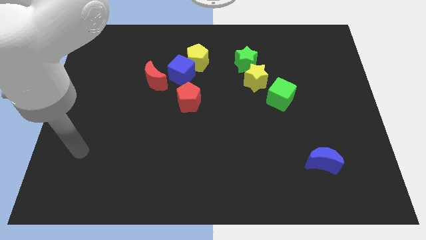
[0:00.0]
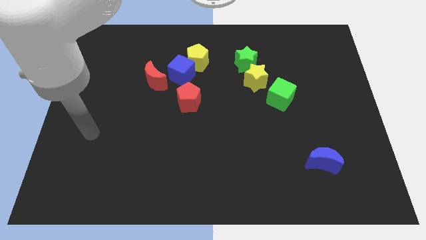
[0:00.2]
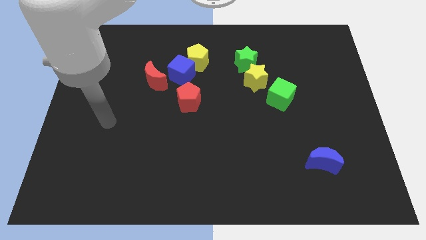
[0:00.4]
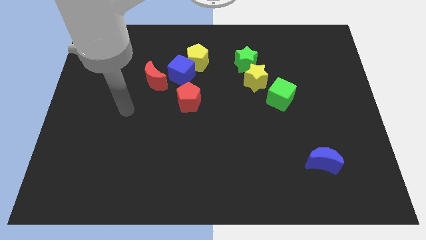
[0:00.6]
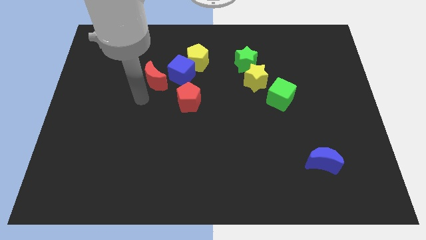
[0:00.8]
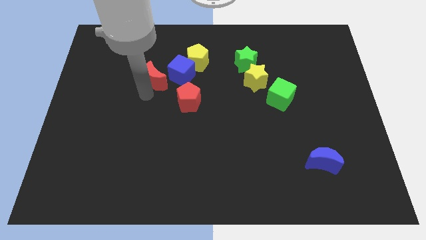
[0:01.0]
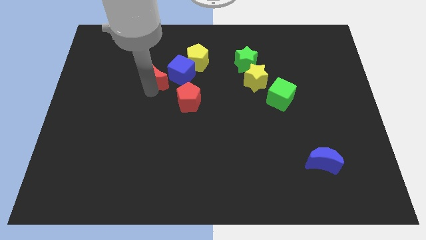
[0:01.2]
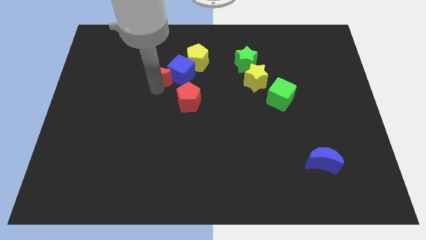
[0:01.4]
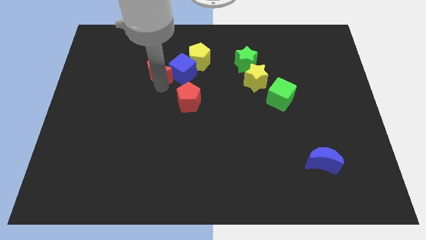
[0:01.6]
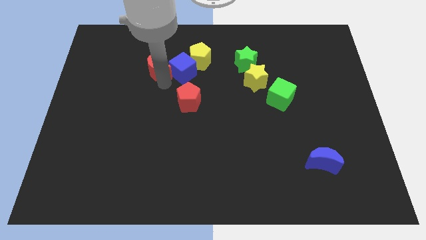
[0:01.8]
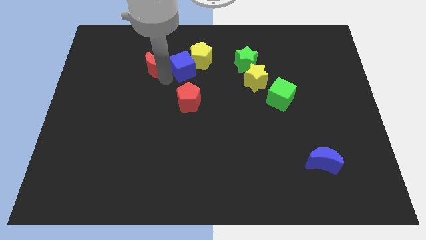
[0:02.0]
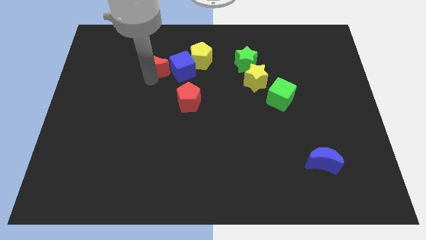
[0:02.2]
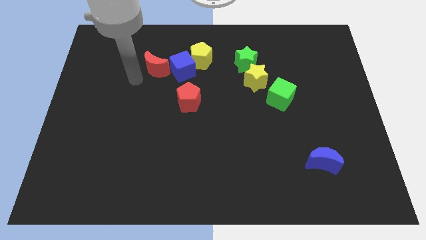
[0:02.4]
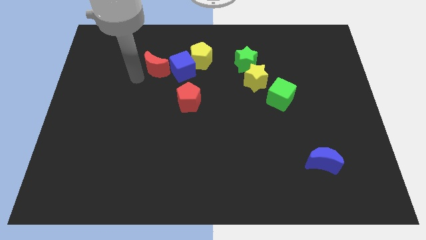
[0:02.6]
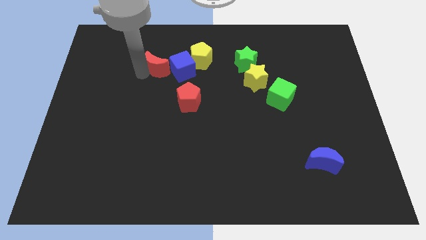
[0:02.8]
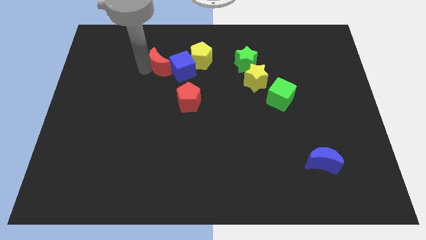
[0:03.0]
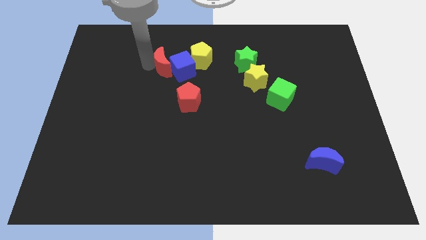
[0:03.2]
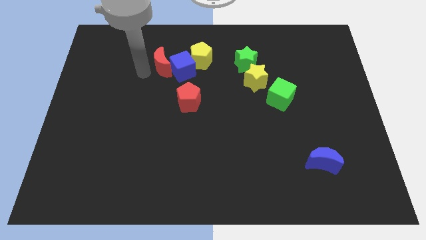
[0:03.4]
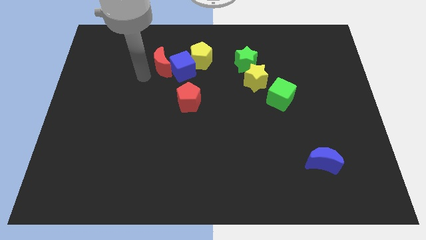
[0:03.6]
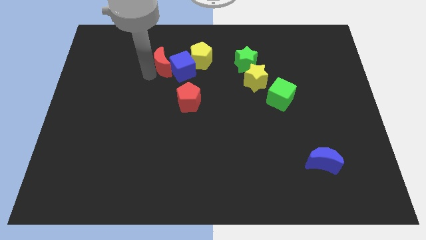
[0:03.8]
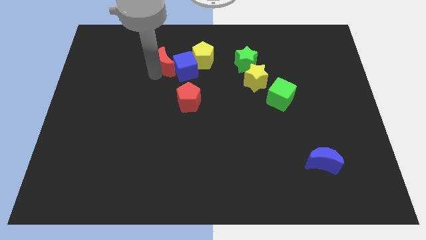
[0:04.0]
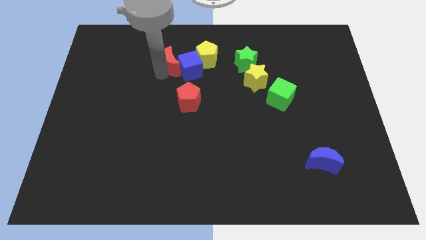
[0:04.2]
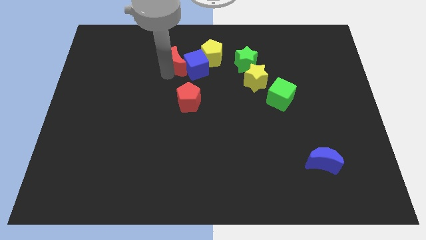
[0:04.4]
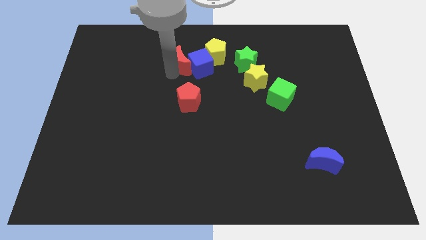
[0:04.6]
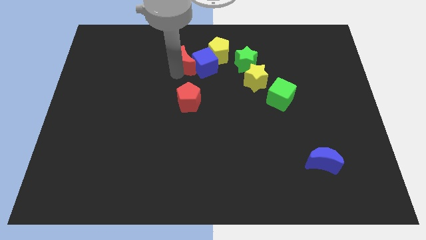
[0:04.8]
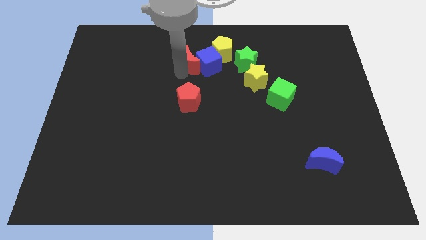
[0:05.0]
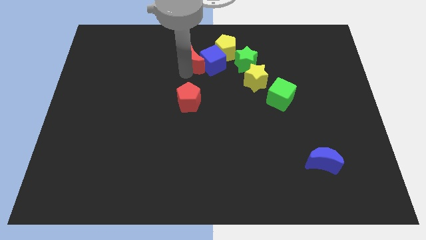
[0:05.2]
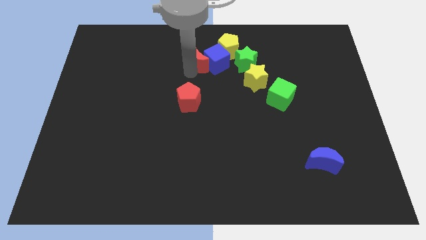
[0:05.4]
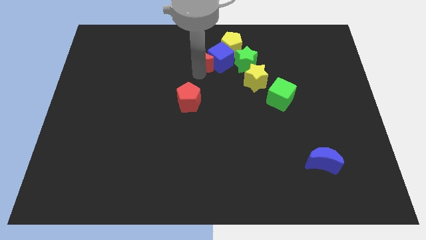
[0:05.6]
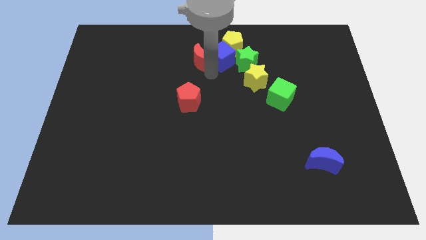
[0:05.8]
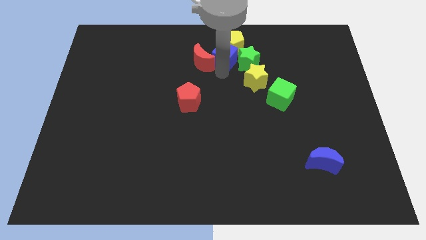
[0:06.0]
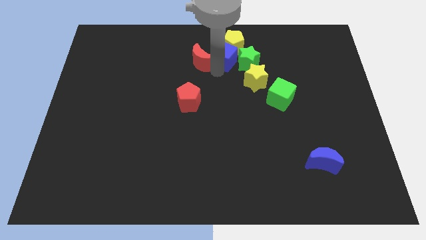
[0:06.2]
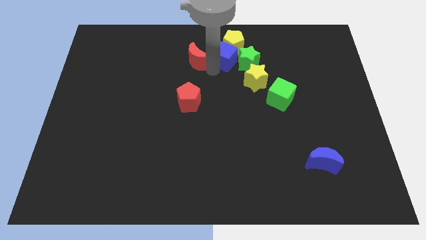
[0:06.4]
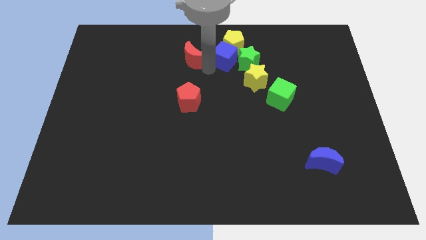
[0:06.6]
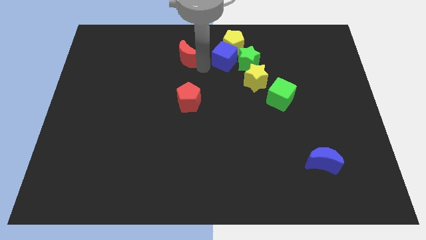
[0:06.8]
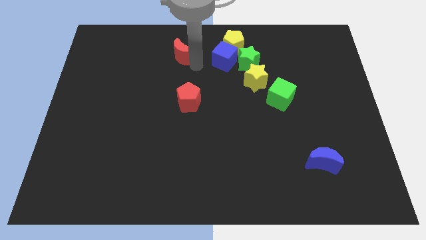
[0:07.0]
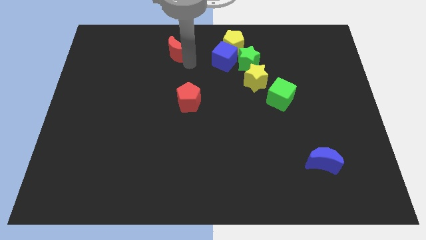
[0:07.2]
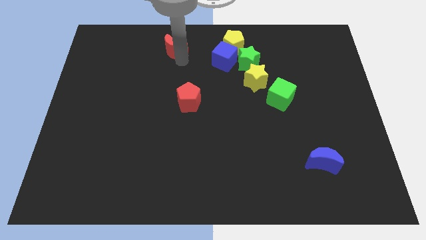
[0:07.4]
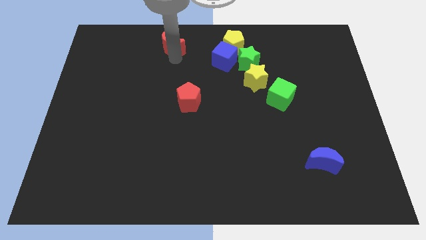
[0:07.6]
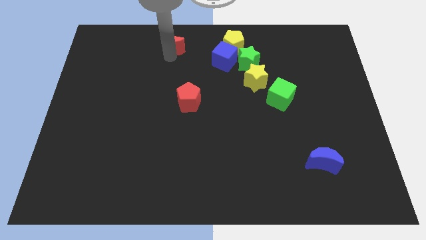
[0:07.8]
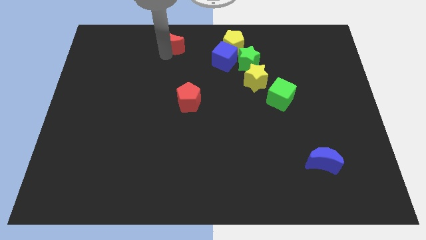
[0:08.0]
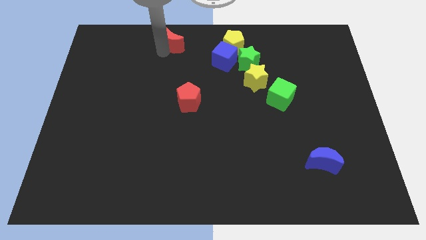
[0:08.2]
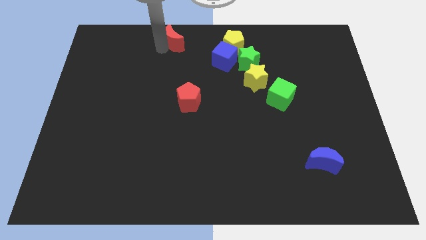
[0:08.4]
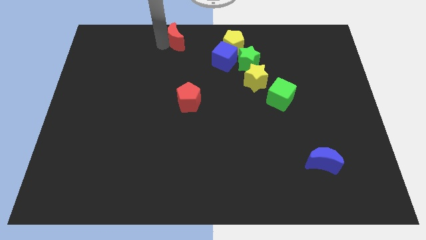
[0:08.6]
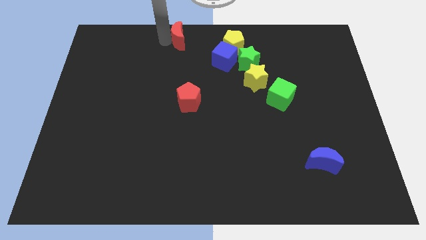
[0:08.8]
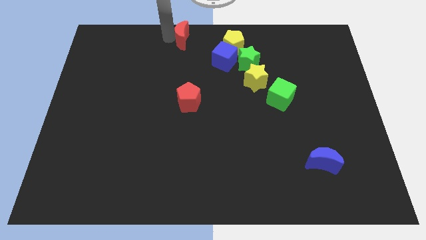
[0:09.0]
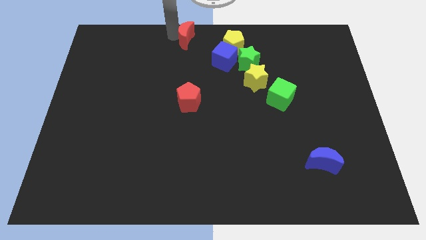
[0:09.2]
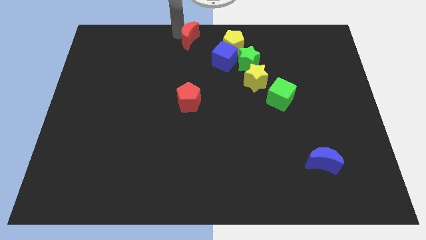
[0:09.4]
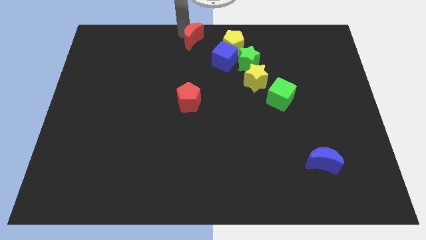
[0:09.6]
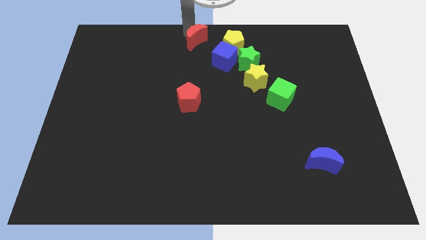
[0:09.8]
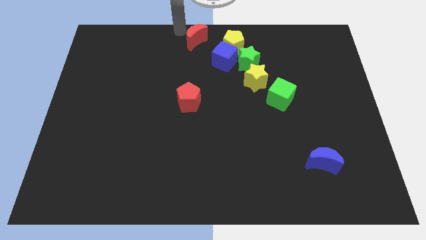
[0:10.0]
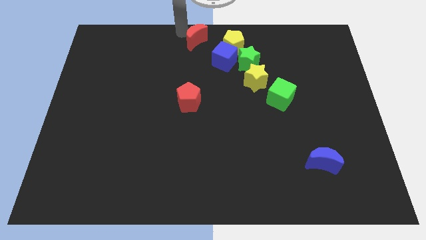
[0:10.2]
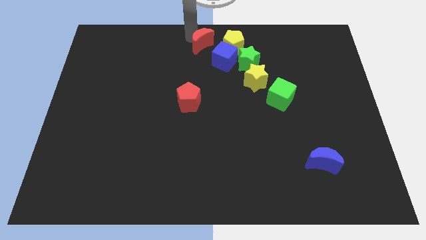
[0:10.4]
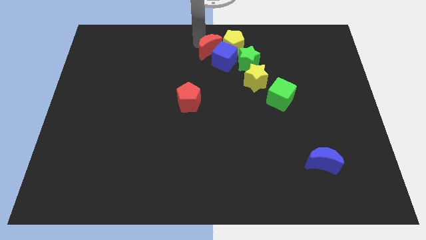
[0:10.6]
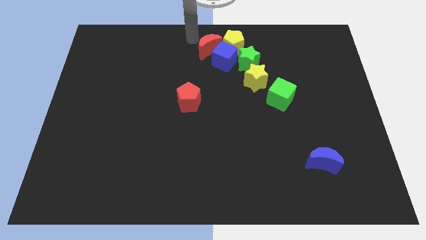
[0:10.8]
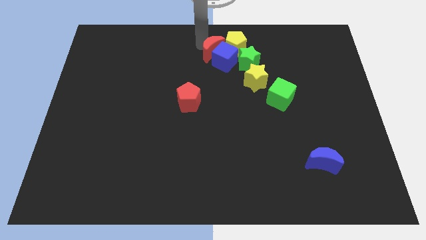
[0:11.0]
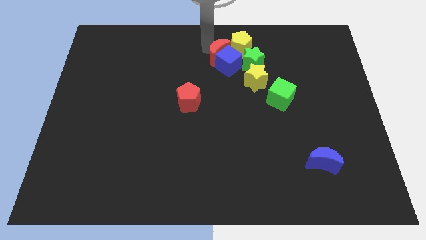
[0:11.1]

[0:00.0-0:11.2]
move the red moon diagonally up and to the left of the yellow star

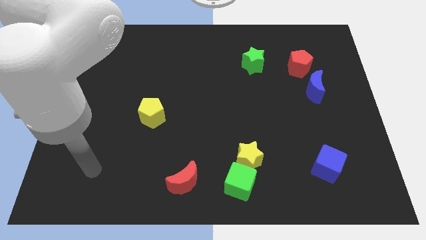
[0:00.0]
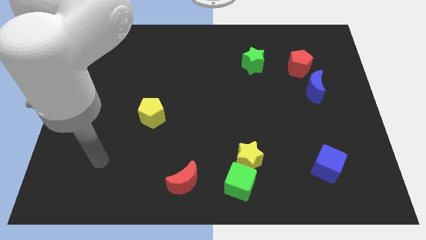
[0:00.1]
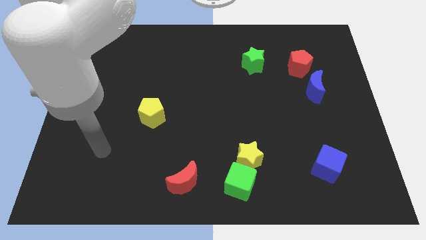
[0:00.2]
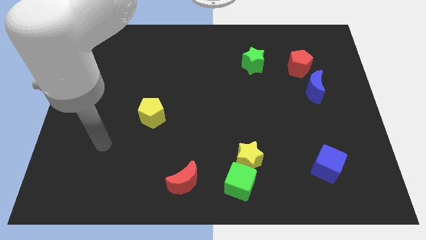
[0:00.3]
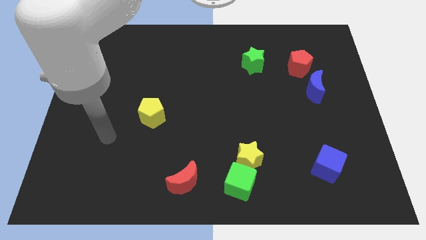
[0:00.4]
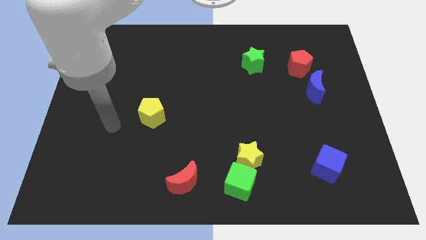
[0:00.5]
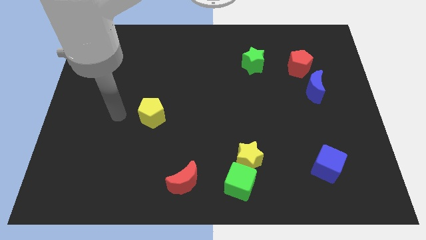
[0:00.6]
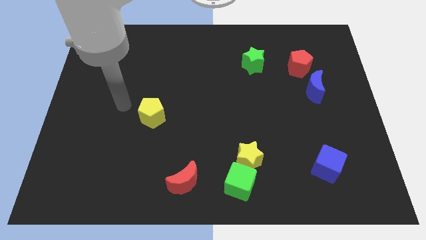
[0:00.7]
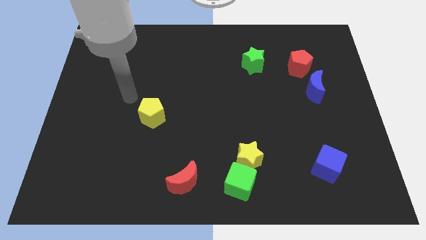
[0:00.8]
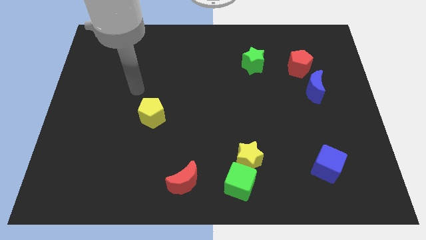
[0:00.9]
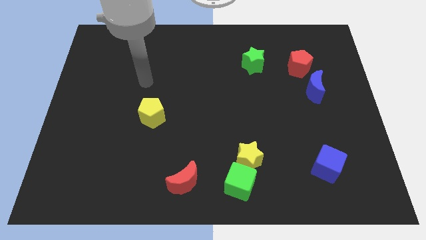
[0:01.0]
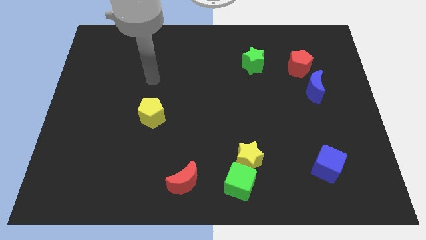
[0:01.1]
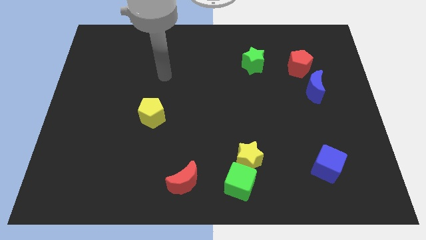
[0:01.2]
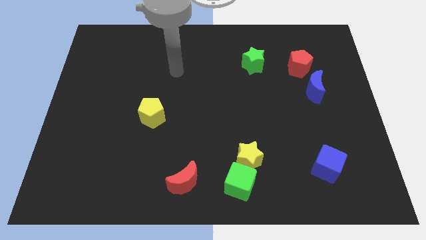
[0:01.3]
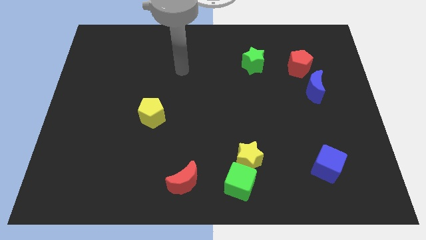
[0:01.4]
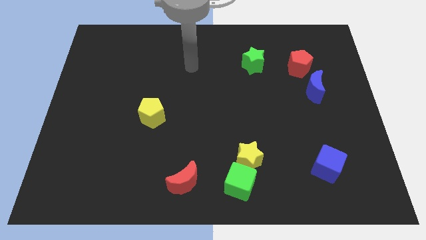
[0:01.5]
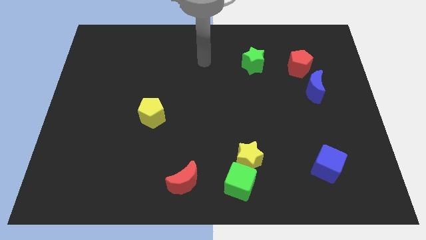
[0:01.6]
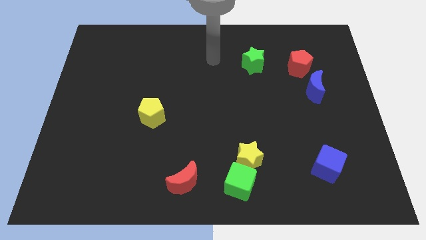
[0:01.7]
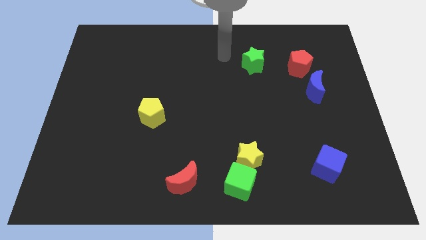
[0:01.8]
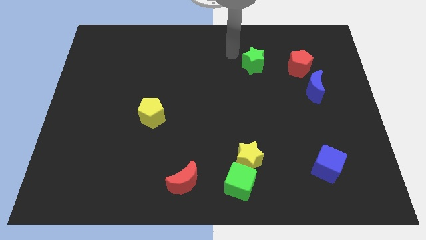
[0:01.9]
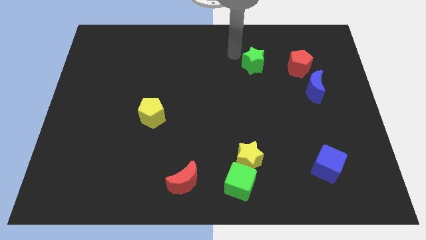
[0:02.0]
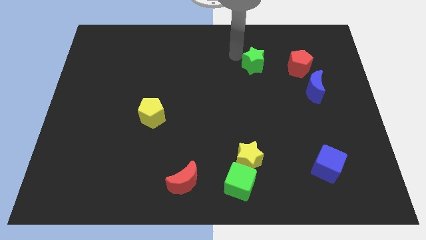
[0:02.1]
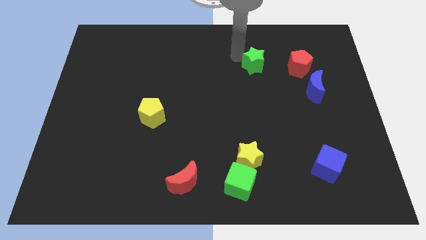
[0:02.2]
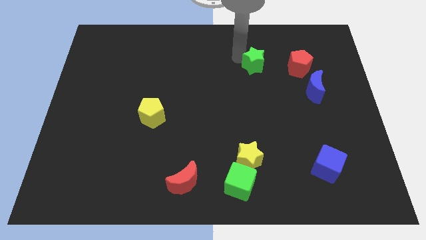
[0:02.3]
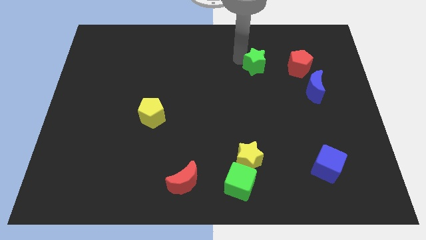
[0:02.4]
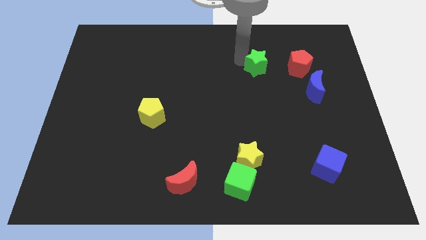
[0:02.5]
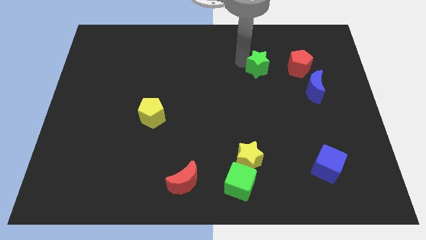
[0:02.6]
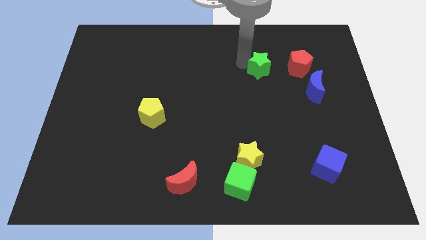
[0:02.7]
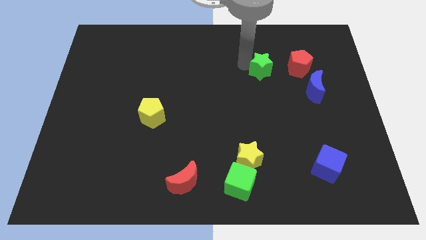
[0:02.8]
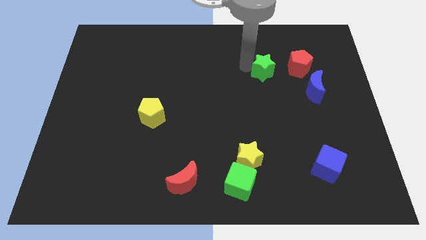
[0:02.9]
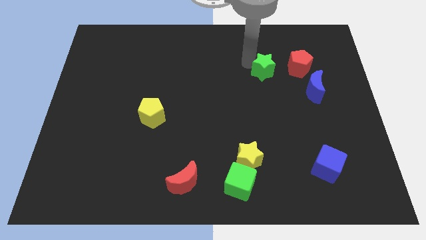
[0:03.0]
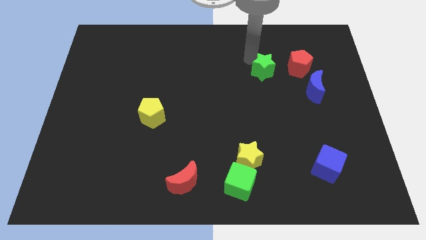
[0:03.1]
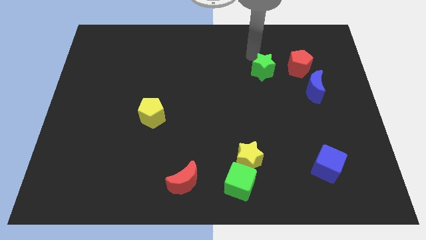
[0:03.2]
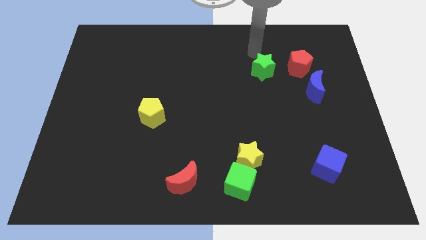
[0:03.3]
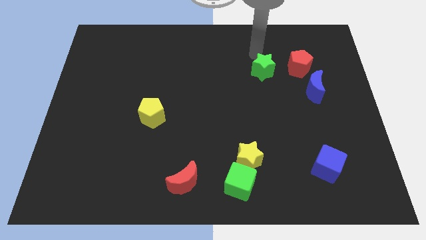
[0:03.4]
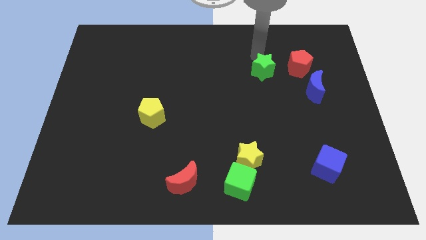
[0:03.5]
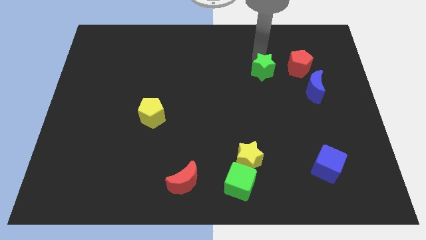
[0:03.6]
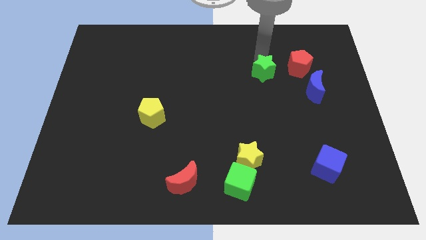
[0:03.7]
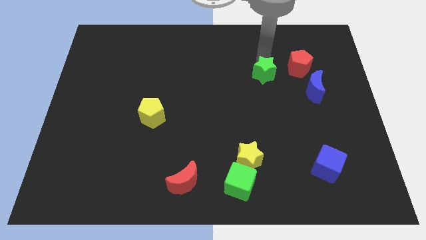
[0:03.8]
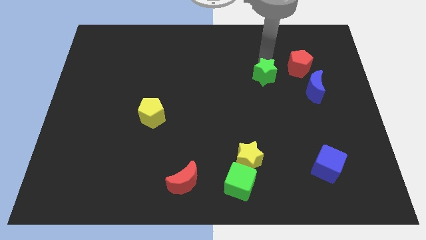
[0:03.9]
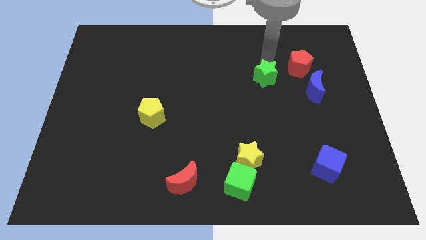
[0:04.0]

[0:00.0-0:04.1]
put the green star to the left of the blue moon
